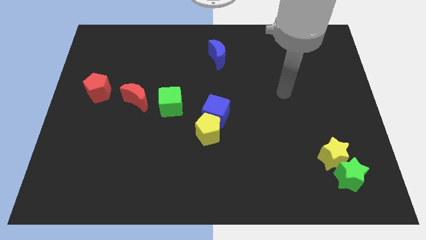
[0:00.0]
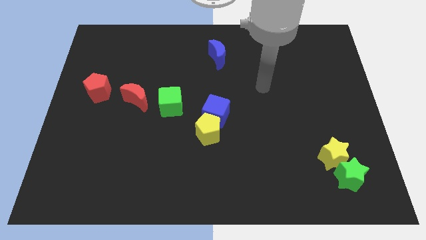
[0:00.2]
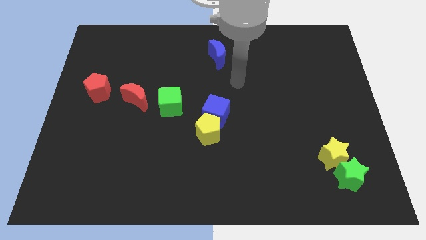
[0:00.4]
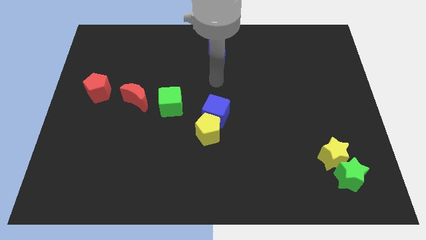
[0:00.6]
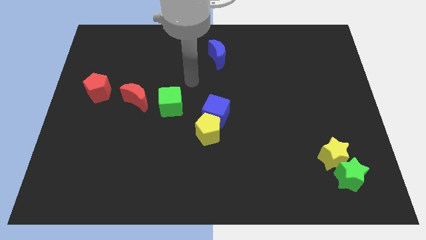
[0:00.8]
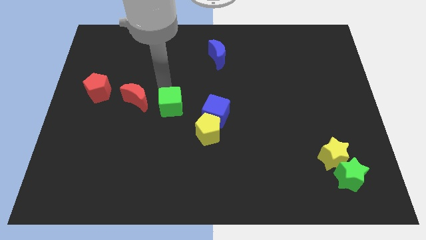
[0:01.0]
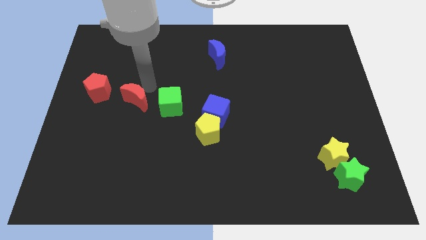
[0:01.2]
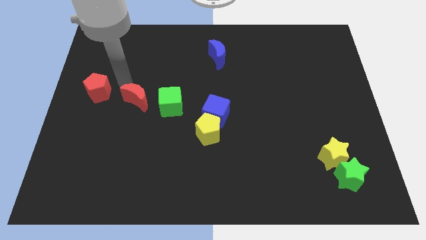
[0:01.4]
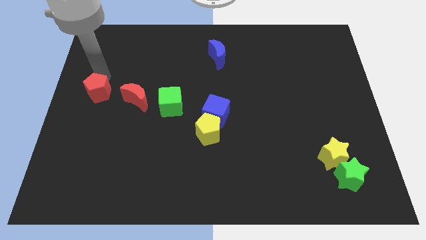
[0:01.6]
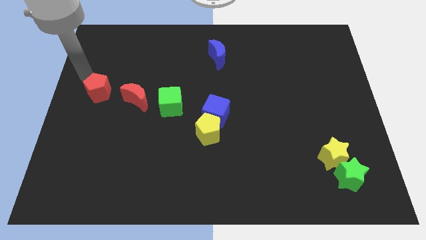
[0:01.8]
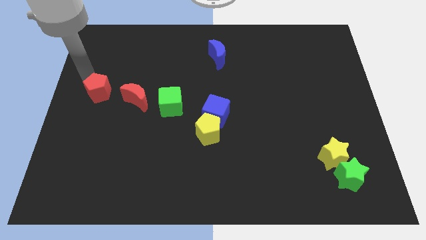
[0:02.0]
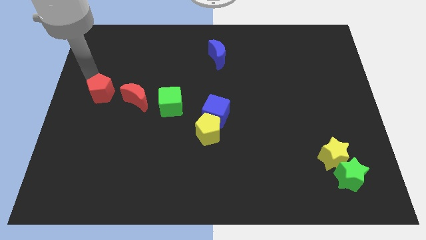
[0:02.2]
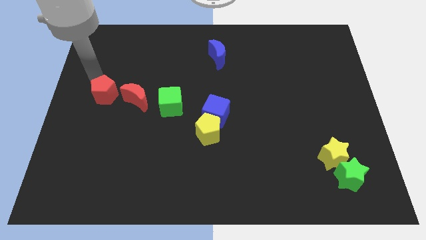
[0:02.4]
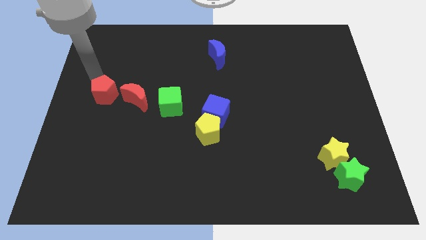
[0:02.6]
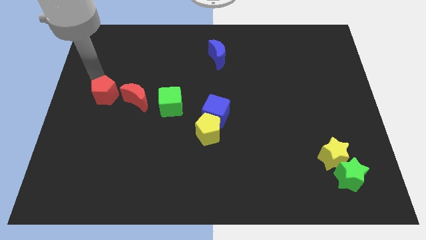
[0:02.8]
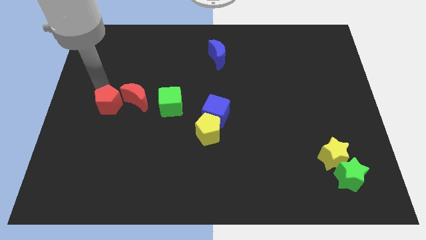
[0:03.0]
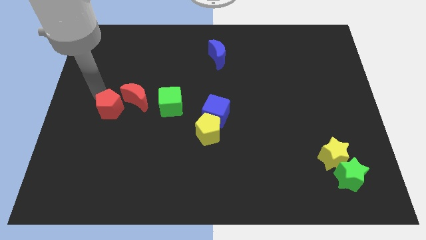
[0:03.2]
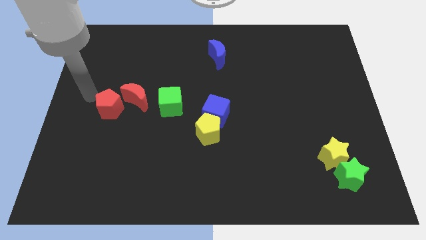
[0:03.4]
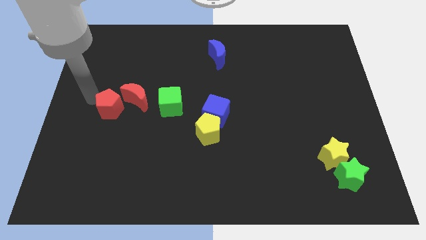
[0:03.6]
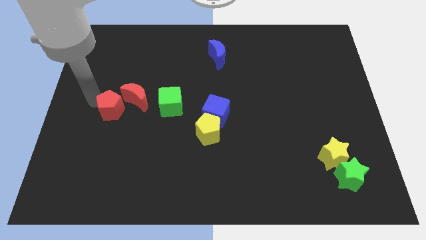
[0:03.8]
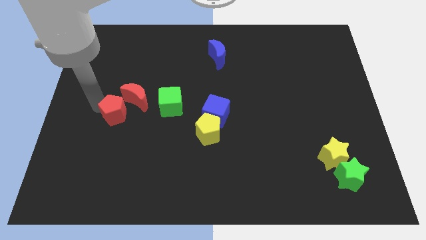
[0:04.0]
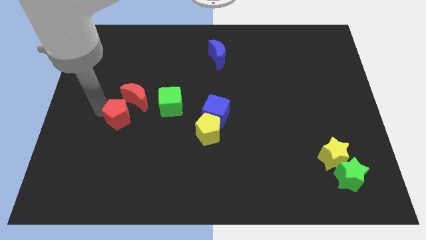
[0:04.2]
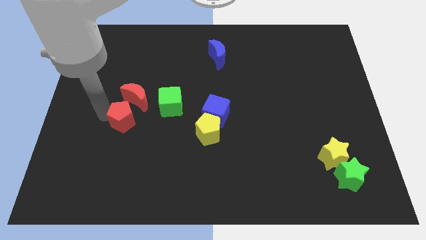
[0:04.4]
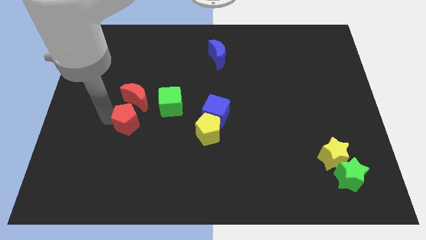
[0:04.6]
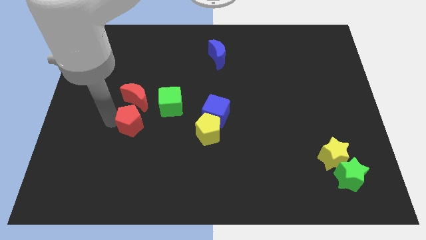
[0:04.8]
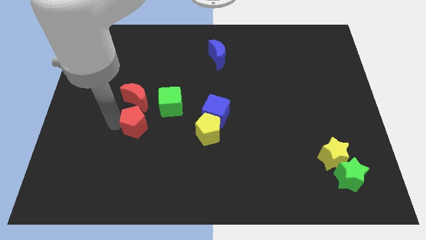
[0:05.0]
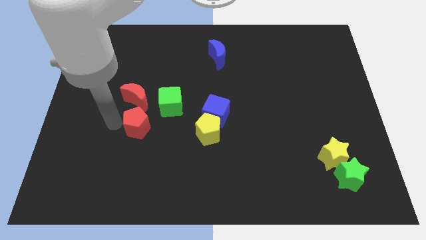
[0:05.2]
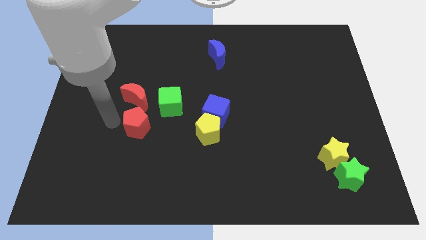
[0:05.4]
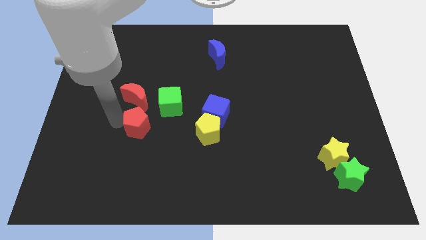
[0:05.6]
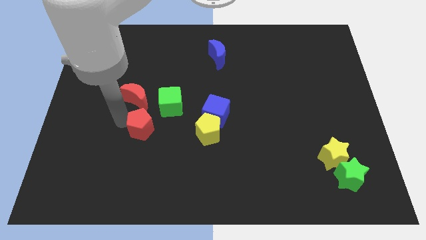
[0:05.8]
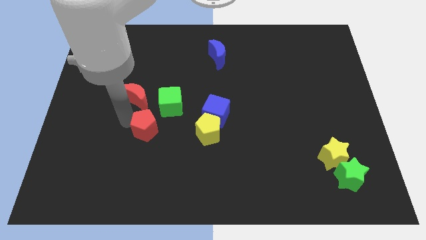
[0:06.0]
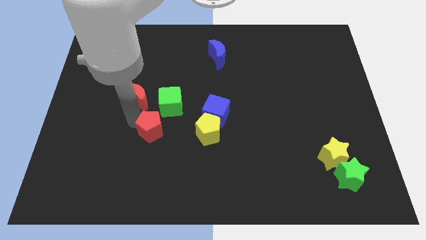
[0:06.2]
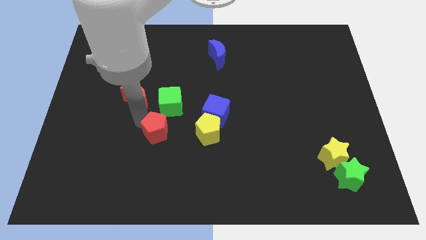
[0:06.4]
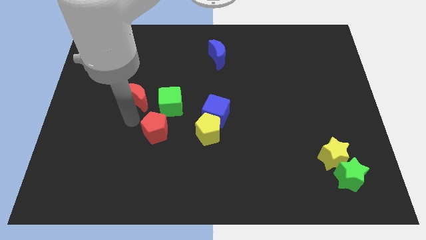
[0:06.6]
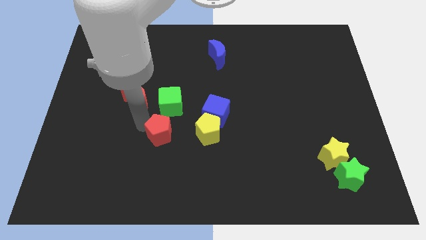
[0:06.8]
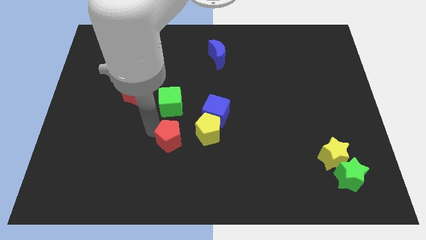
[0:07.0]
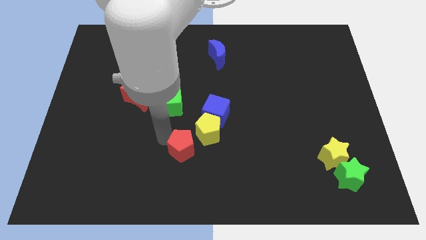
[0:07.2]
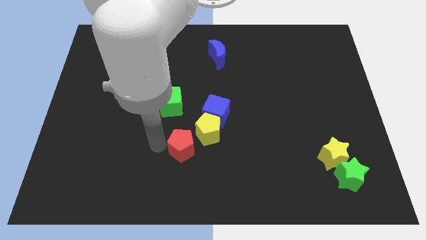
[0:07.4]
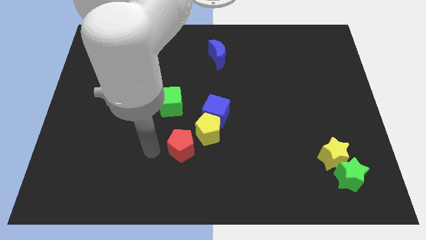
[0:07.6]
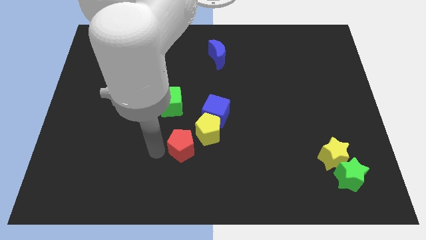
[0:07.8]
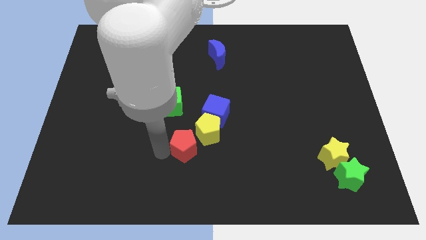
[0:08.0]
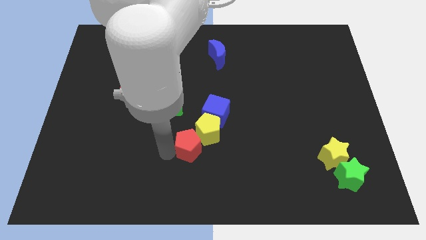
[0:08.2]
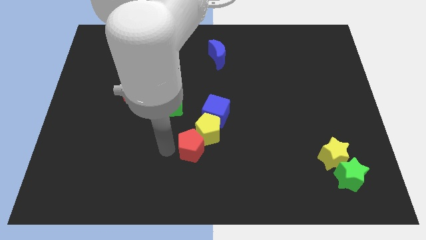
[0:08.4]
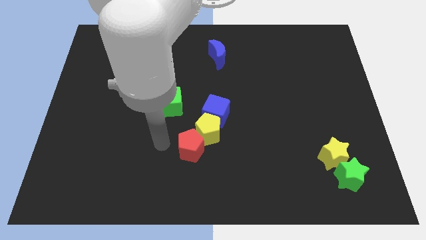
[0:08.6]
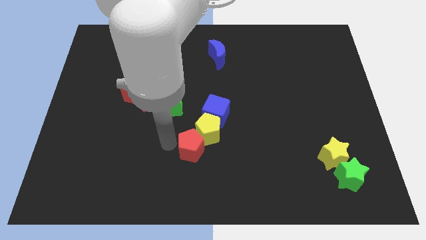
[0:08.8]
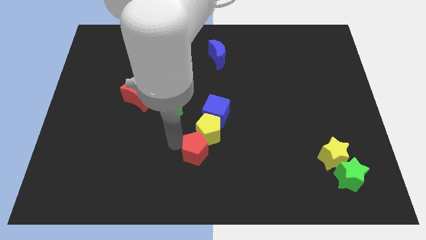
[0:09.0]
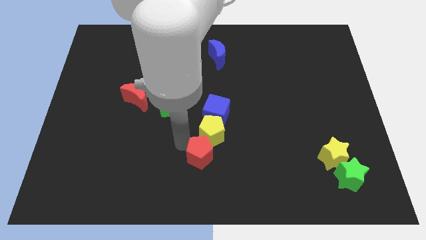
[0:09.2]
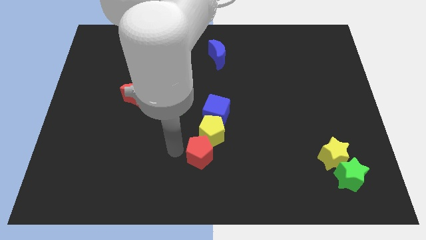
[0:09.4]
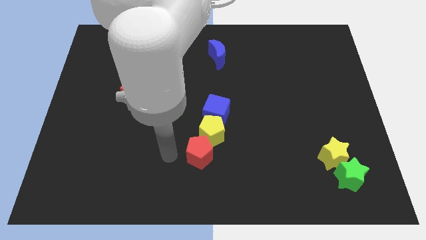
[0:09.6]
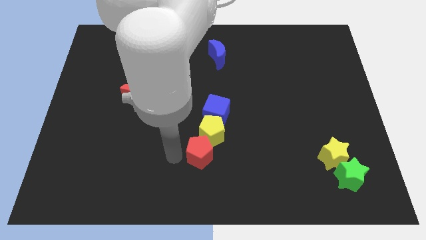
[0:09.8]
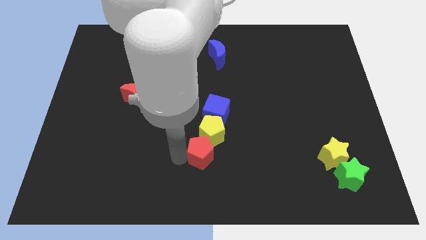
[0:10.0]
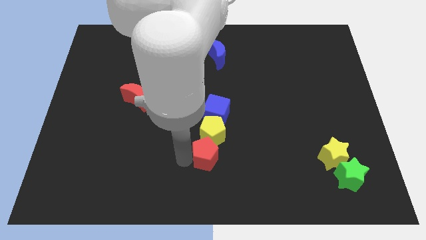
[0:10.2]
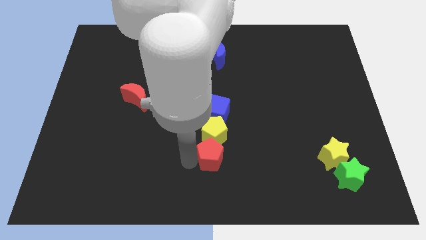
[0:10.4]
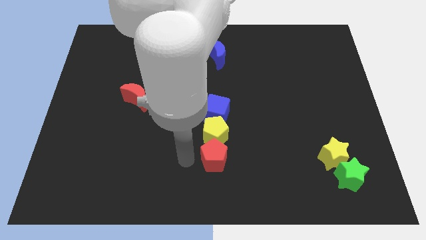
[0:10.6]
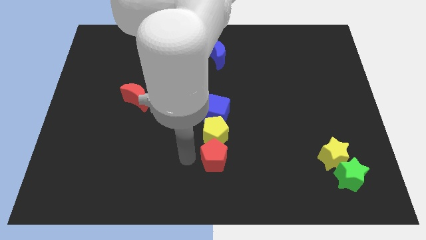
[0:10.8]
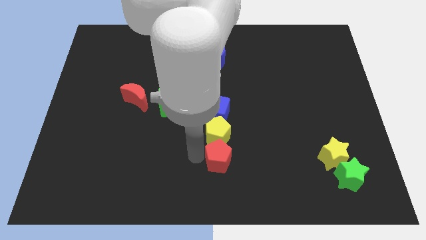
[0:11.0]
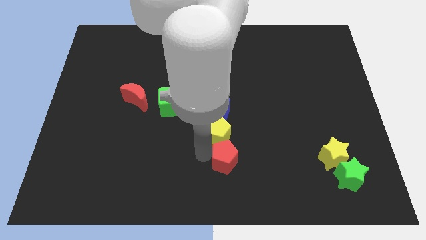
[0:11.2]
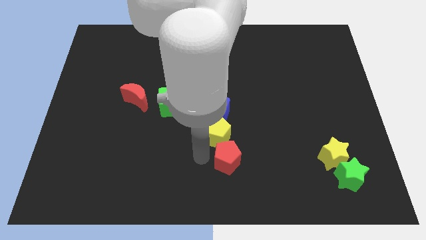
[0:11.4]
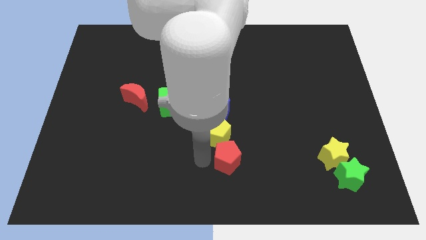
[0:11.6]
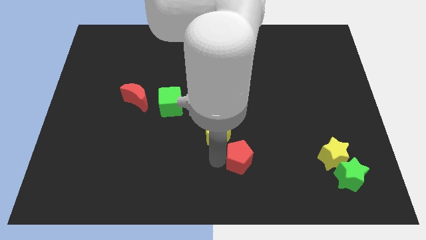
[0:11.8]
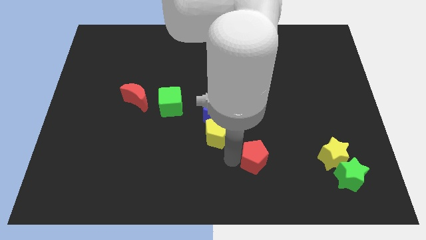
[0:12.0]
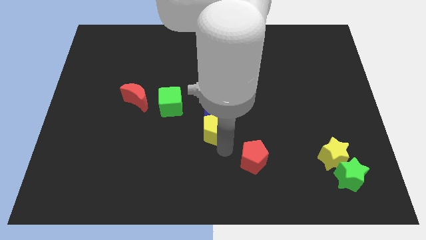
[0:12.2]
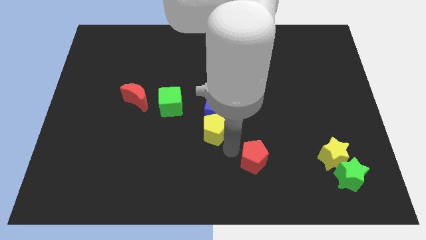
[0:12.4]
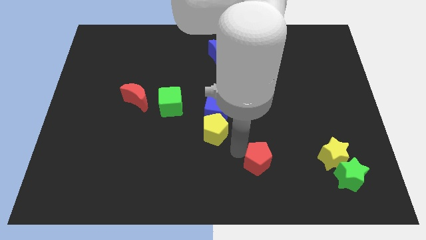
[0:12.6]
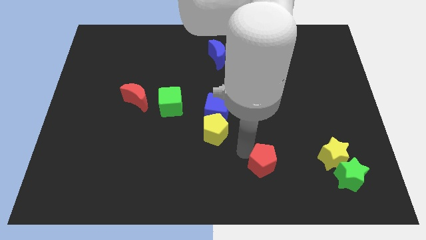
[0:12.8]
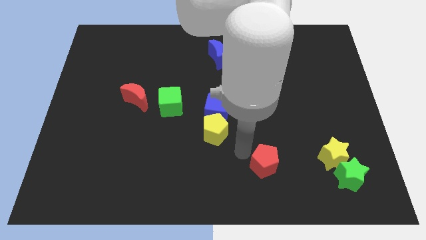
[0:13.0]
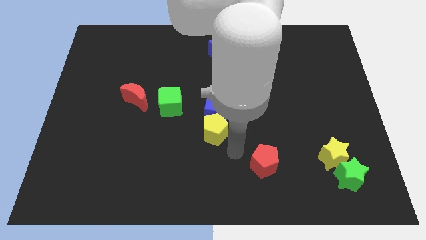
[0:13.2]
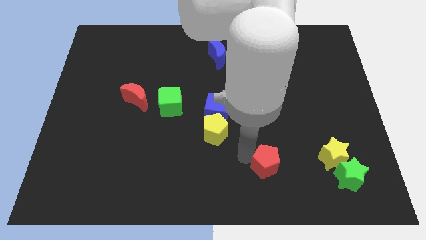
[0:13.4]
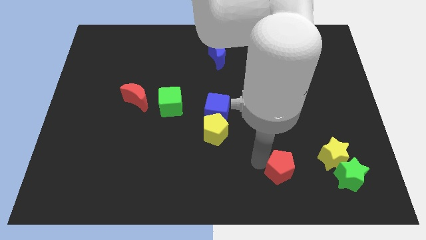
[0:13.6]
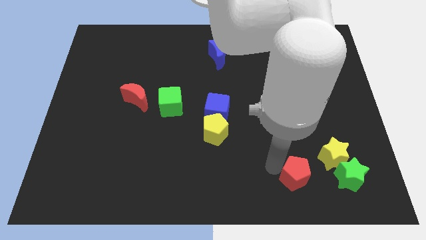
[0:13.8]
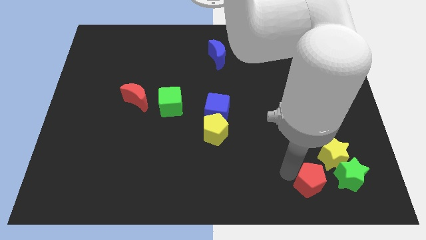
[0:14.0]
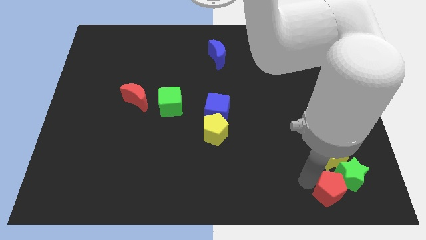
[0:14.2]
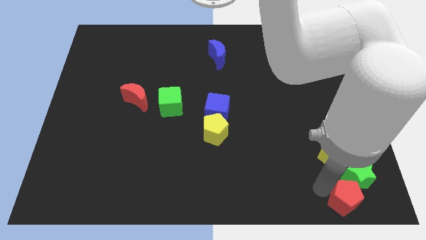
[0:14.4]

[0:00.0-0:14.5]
move the red pentagon to the bottom right corner

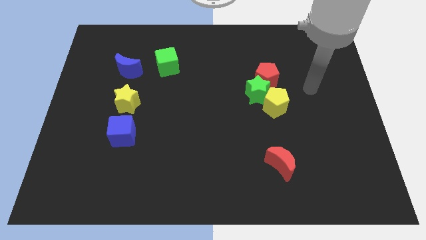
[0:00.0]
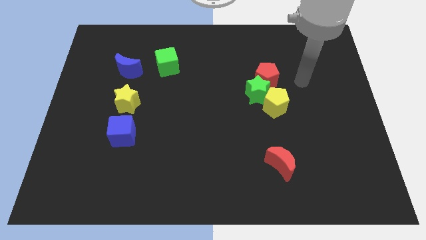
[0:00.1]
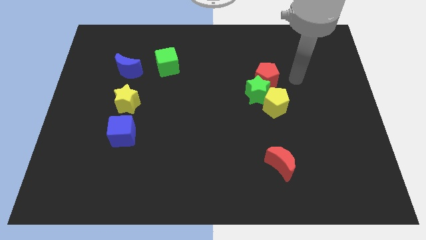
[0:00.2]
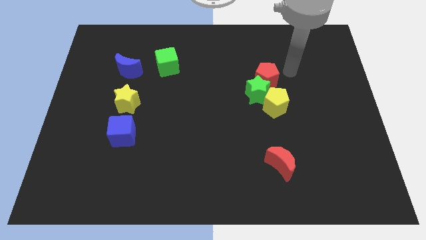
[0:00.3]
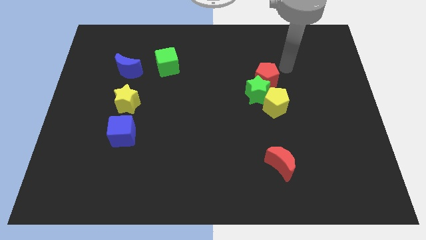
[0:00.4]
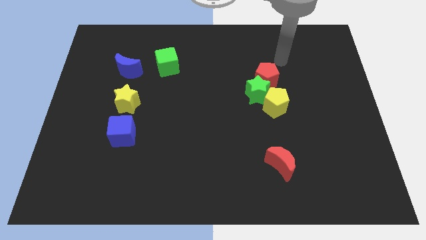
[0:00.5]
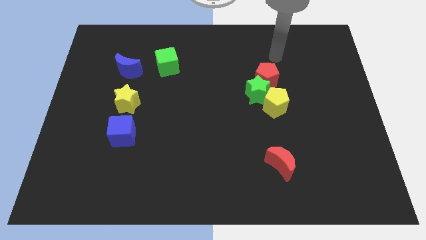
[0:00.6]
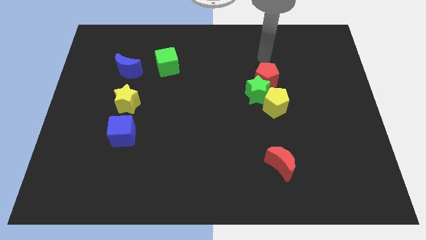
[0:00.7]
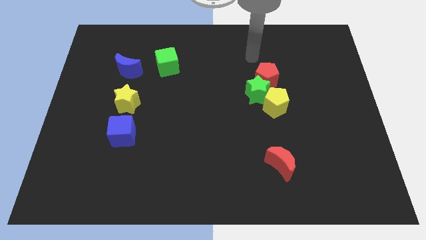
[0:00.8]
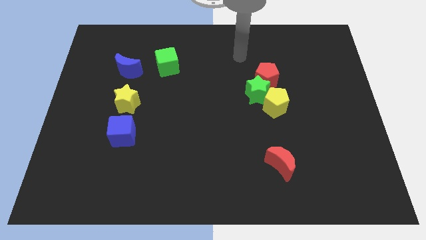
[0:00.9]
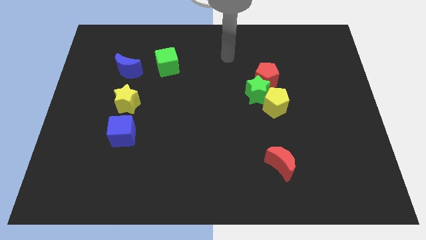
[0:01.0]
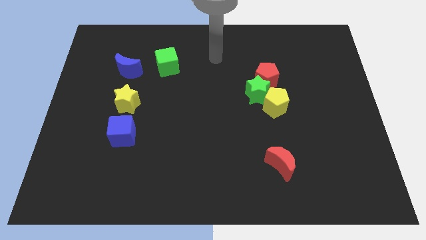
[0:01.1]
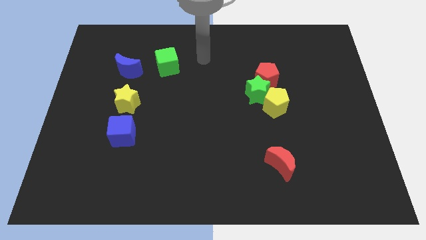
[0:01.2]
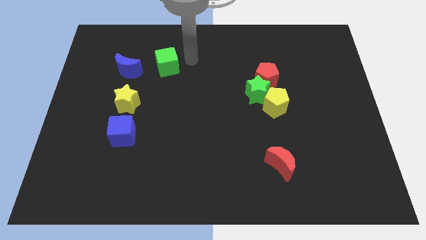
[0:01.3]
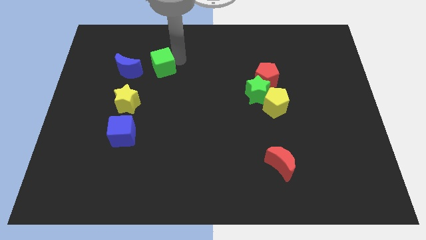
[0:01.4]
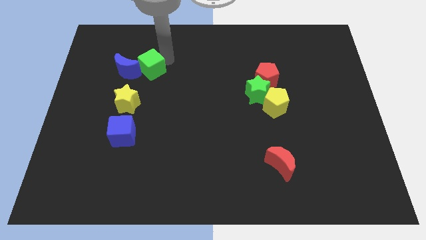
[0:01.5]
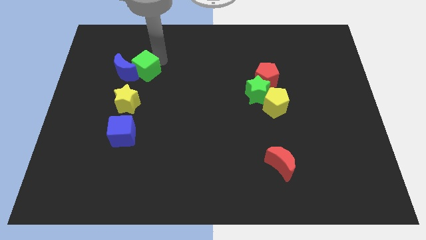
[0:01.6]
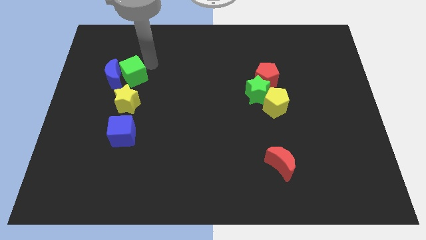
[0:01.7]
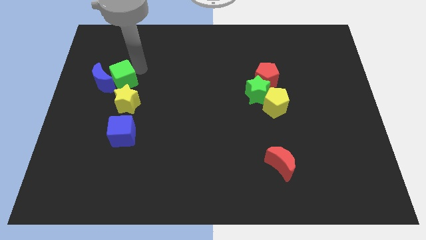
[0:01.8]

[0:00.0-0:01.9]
move the blue moon to the left side
